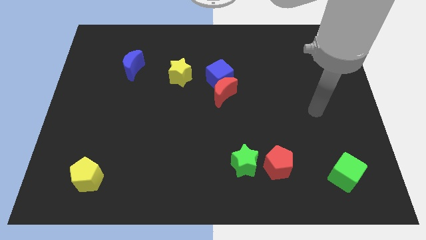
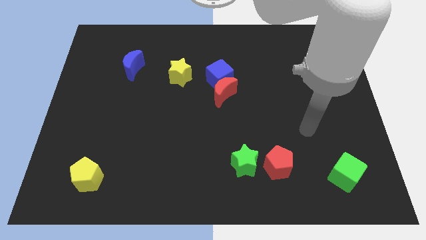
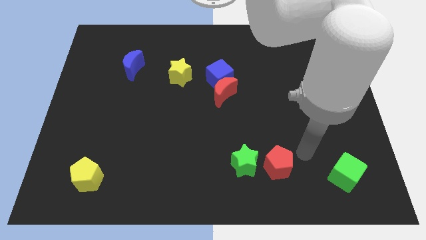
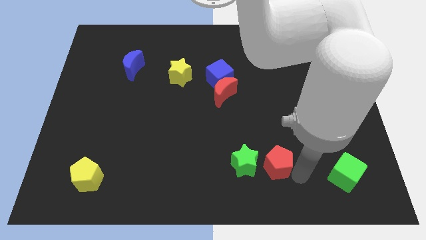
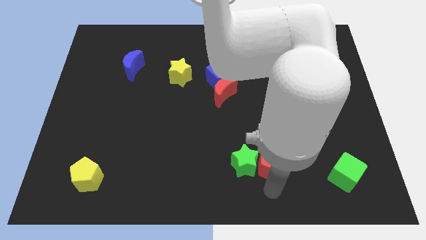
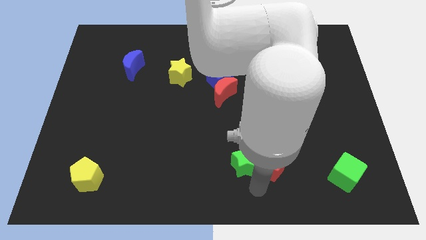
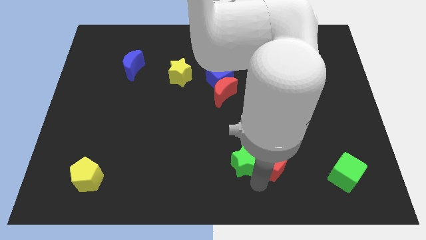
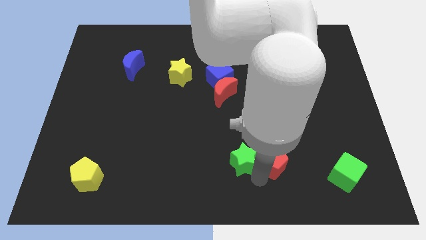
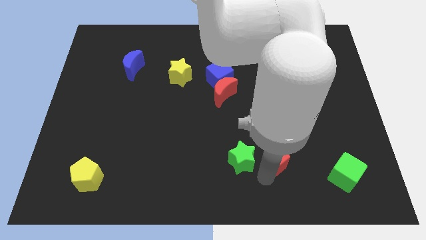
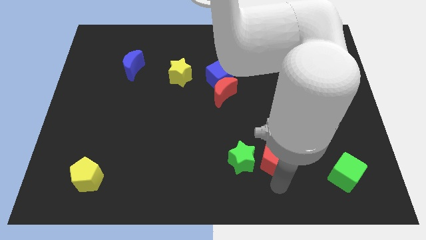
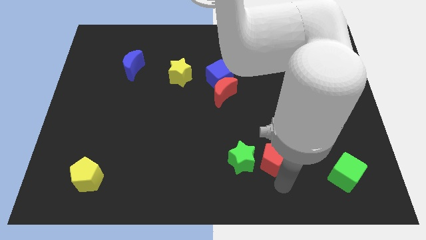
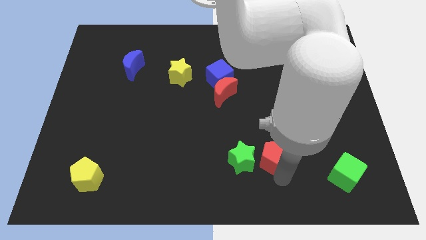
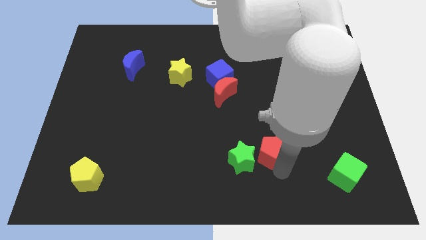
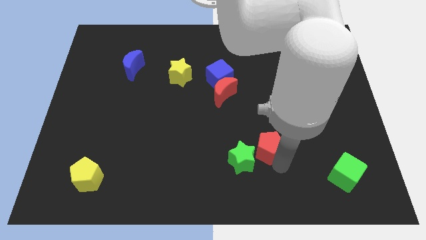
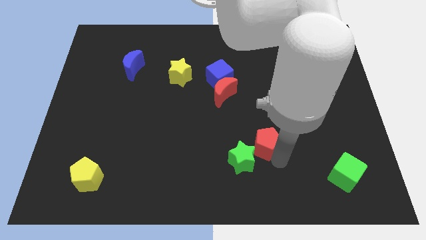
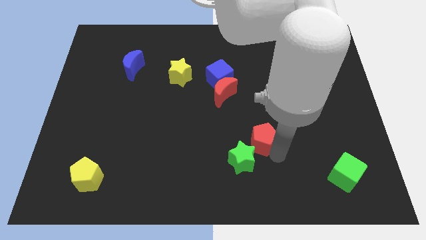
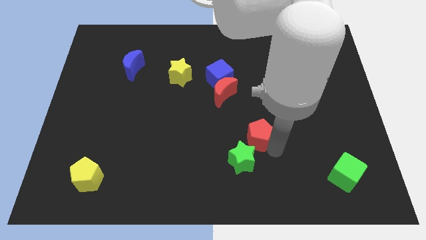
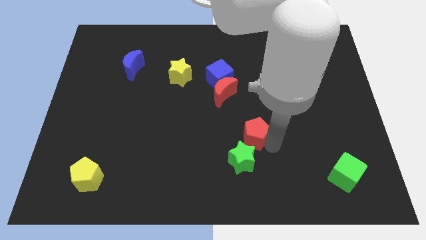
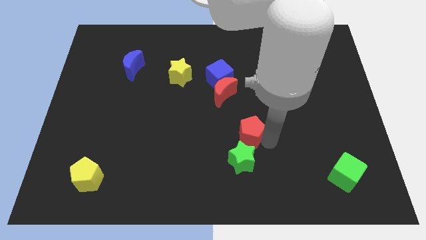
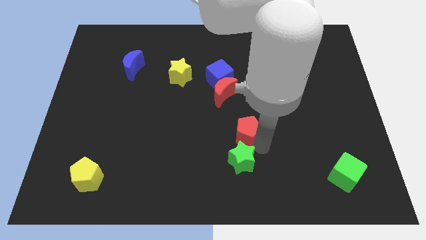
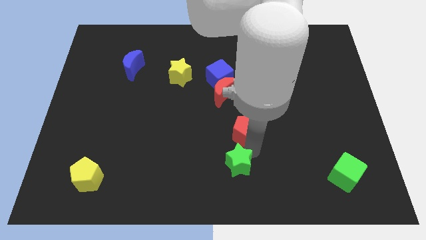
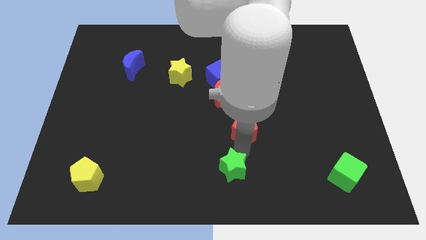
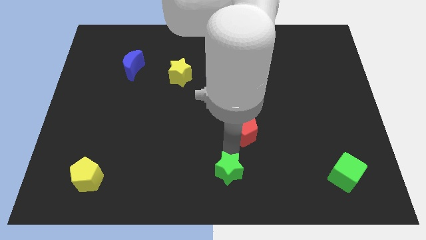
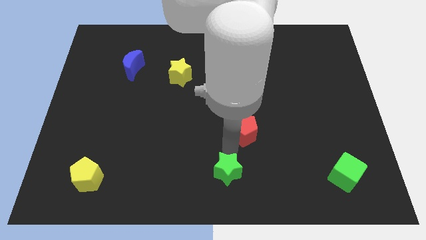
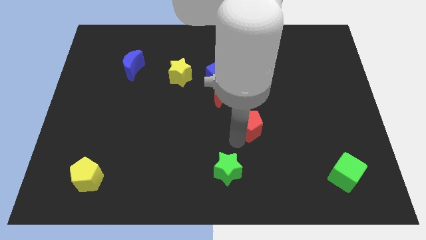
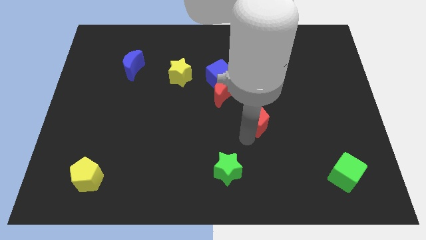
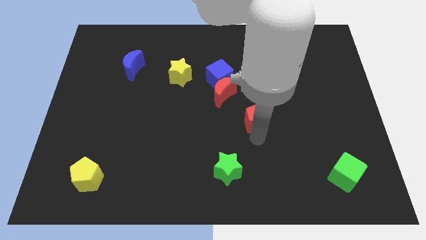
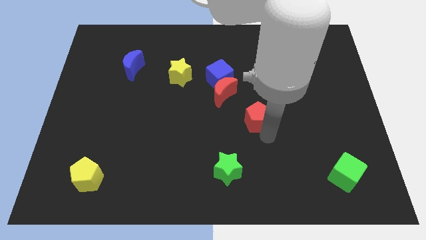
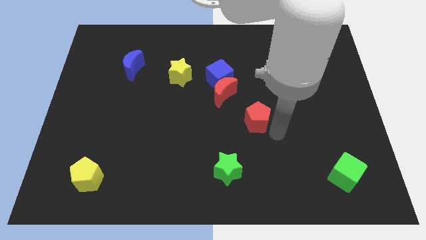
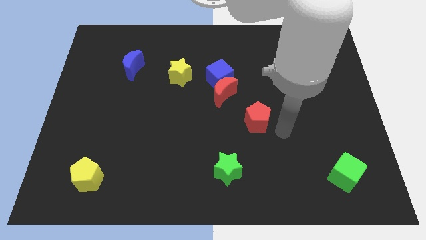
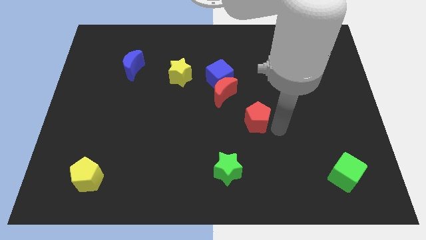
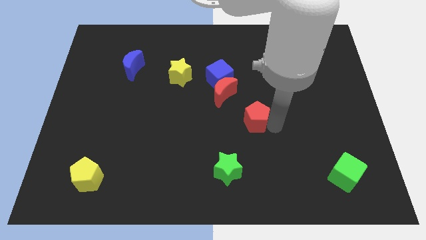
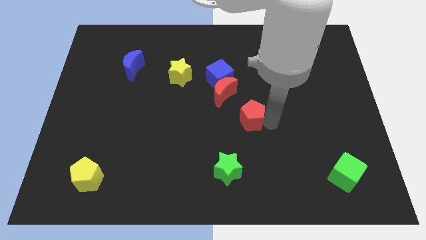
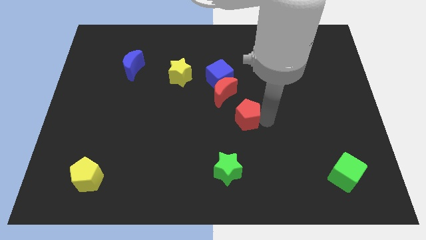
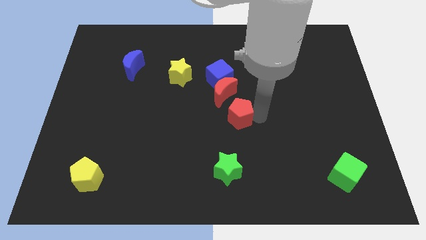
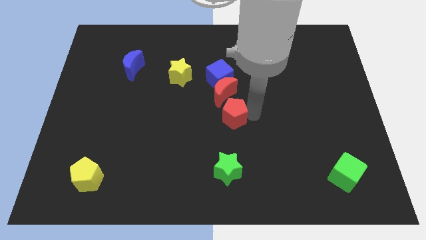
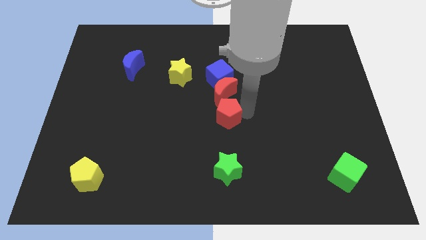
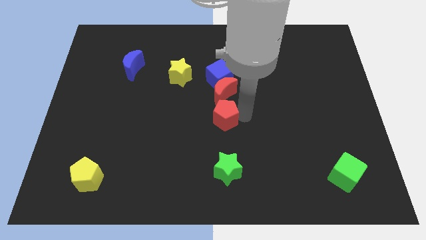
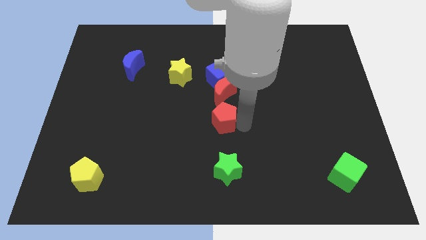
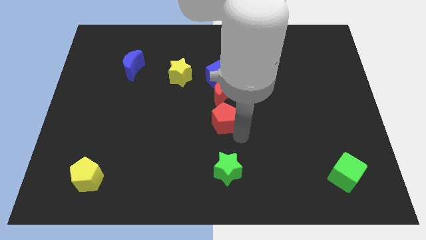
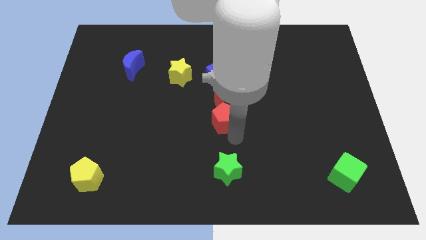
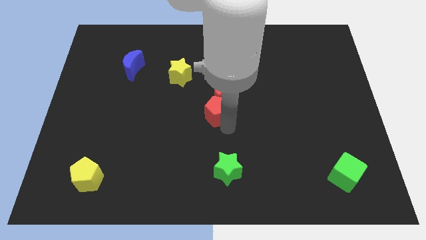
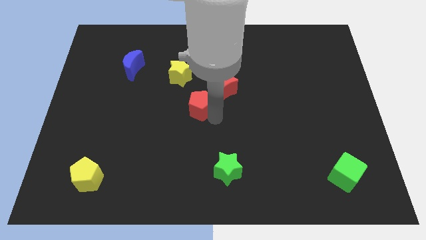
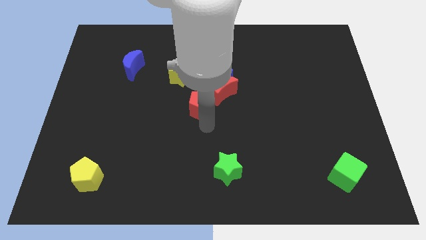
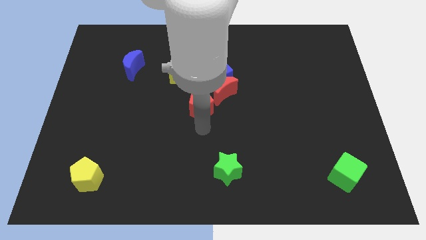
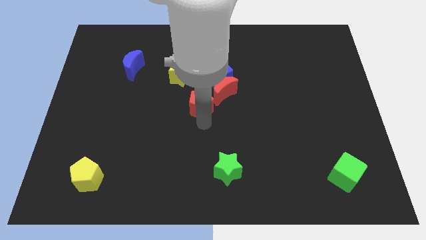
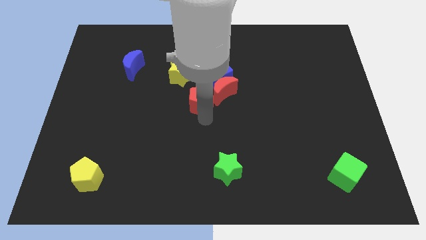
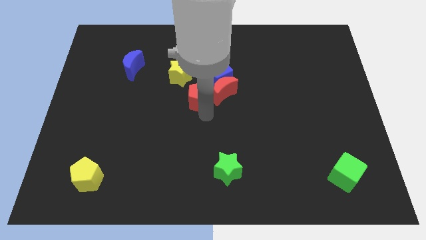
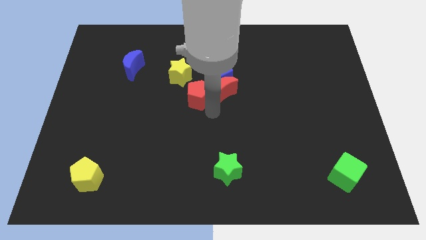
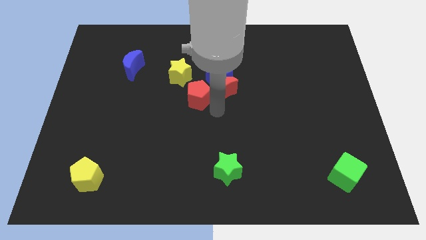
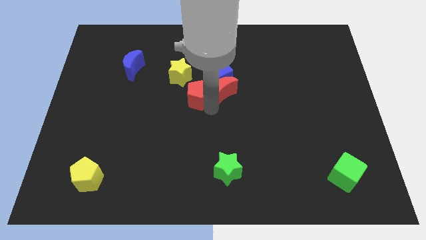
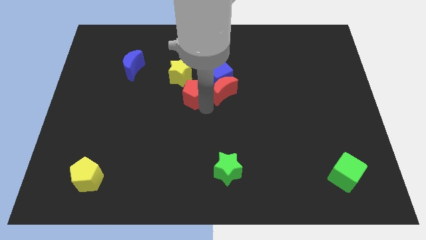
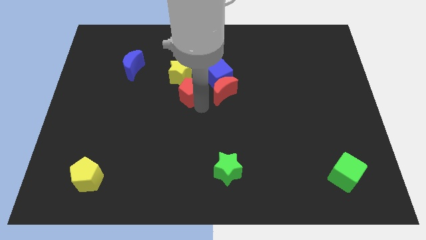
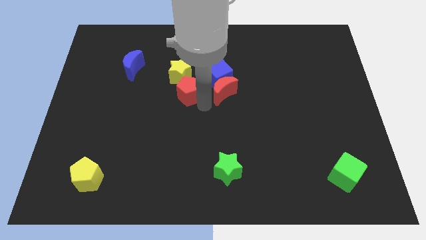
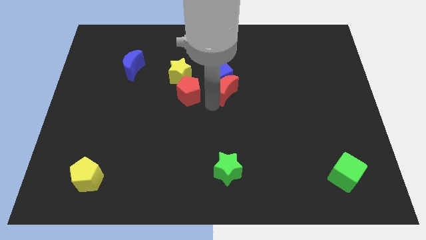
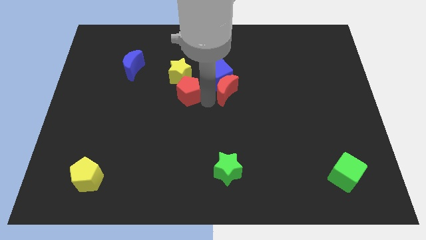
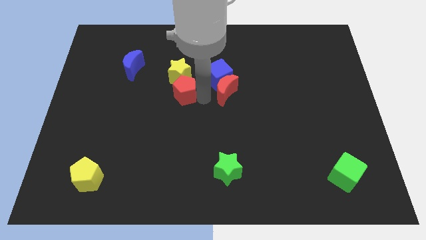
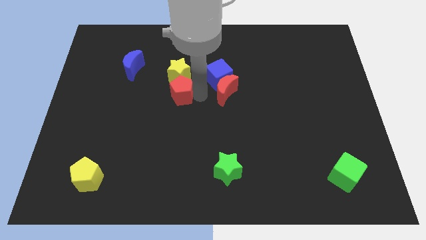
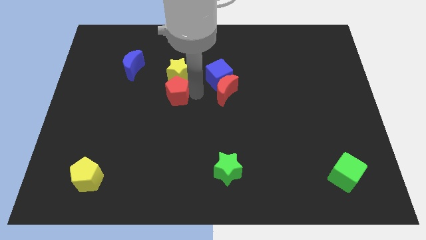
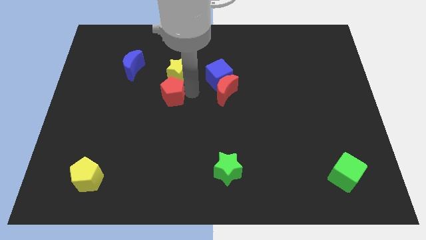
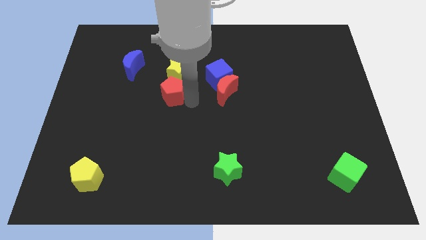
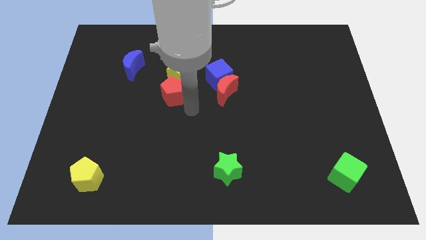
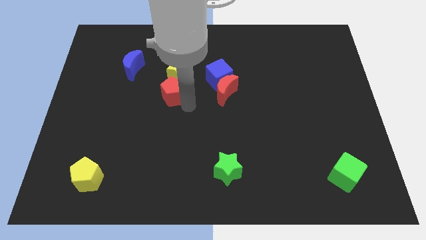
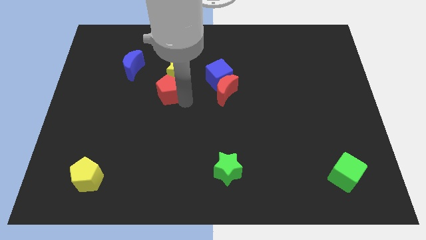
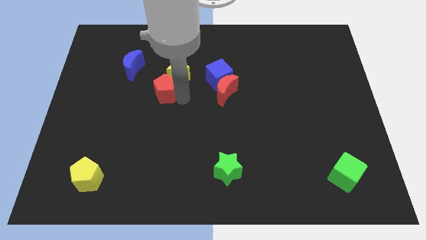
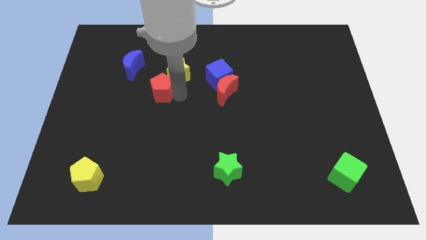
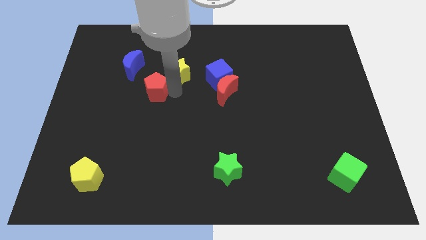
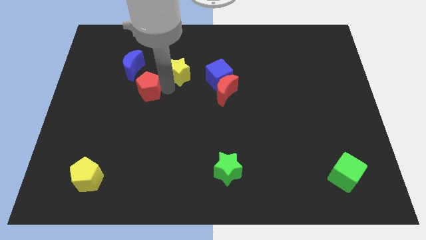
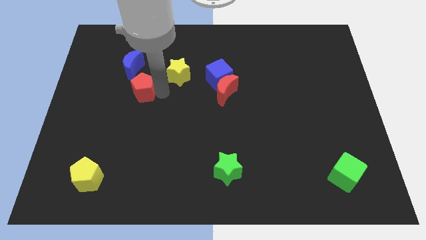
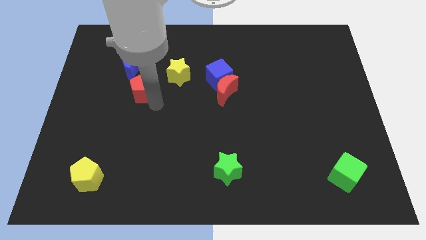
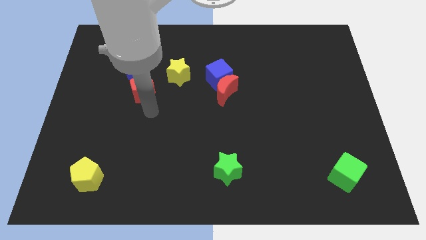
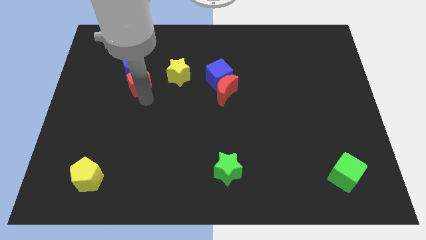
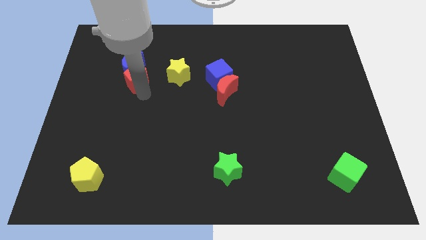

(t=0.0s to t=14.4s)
push the red pentagon to the blue moon
